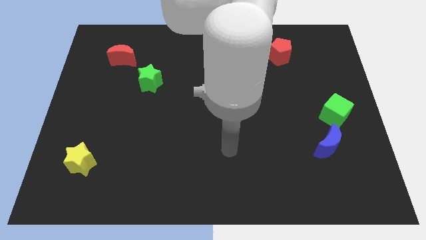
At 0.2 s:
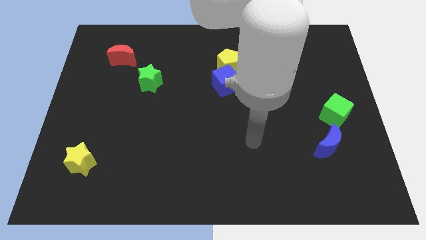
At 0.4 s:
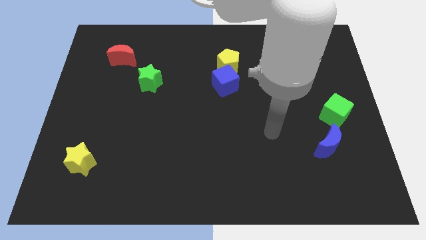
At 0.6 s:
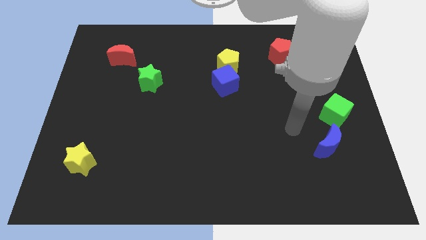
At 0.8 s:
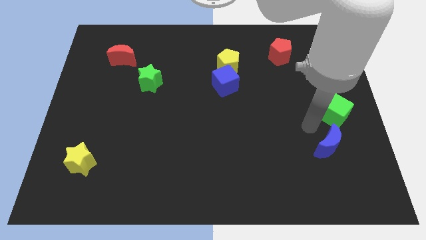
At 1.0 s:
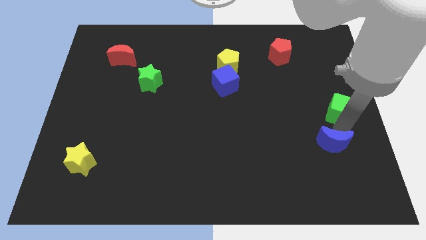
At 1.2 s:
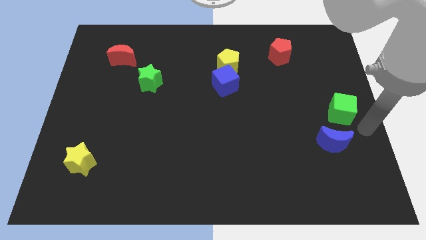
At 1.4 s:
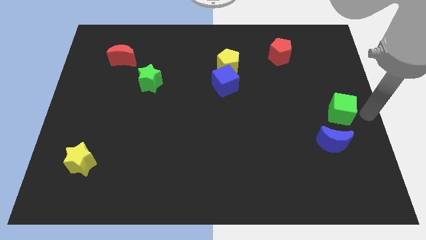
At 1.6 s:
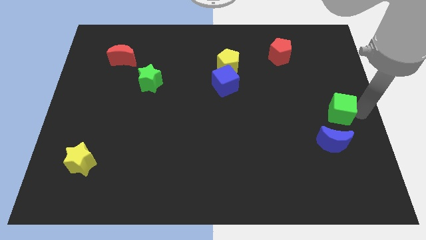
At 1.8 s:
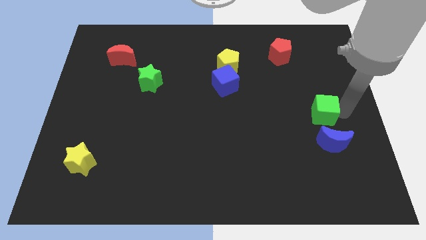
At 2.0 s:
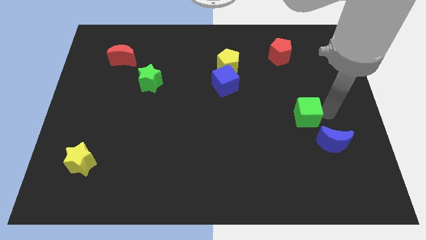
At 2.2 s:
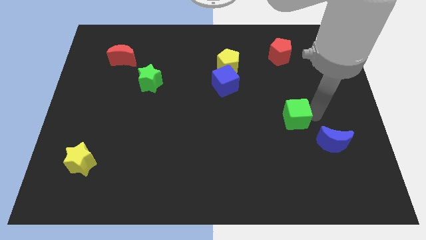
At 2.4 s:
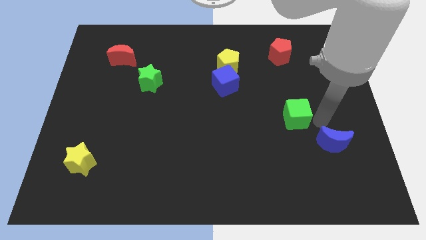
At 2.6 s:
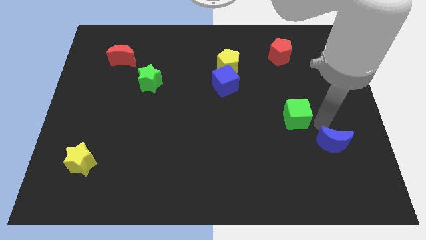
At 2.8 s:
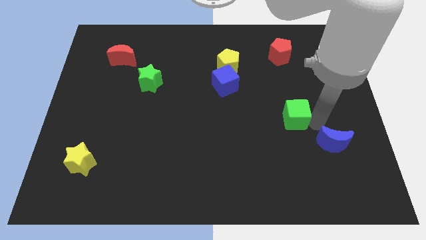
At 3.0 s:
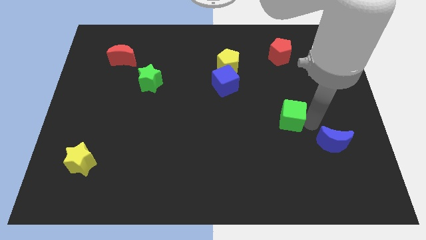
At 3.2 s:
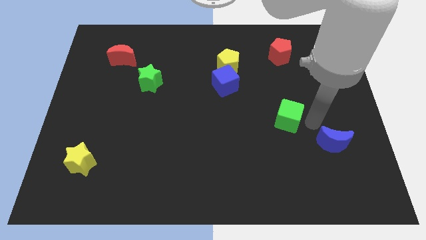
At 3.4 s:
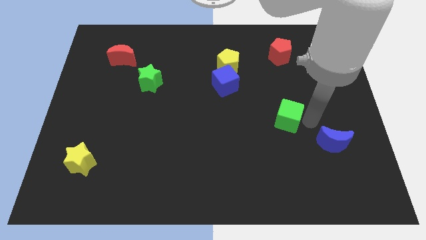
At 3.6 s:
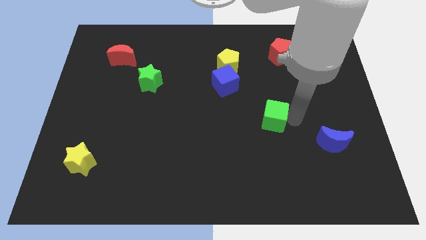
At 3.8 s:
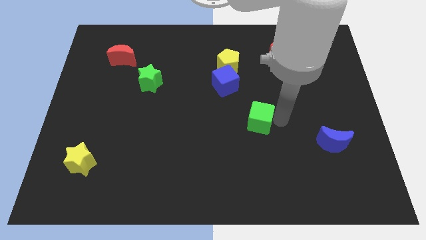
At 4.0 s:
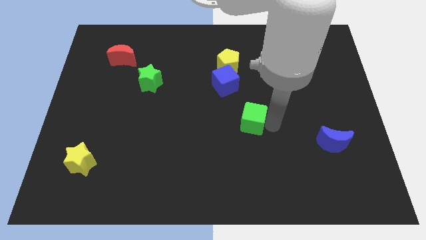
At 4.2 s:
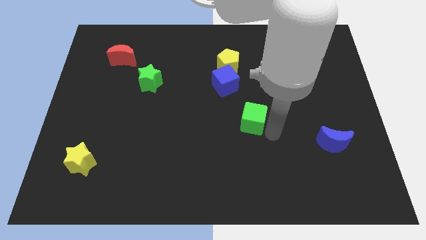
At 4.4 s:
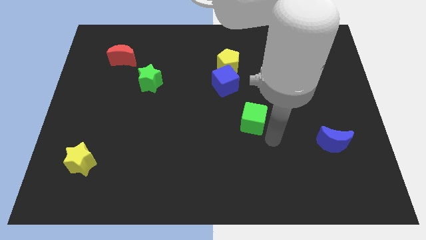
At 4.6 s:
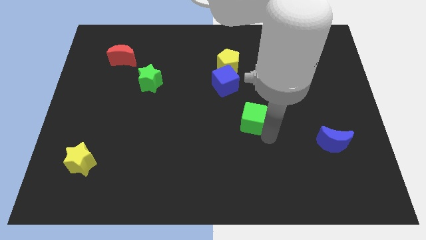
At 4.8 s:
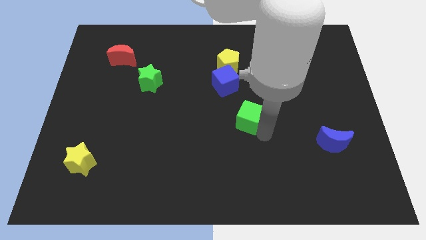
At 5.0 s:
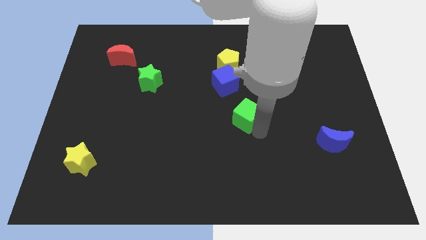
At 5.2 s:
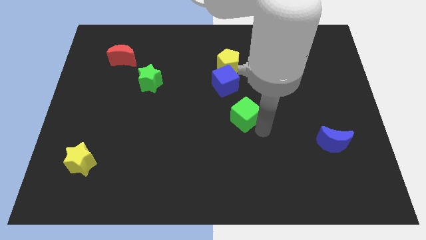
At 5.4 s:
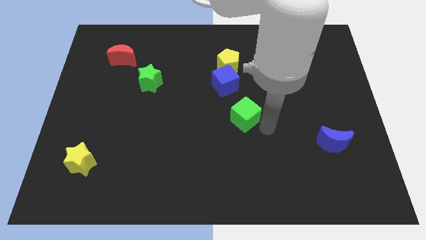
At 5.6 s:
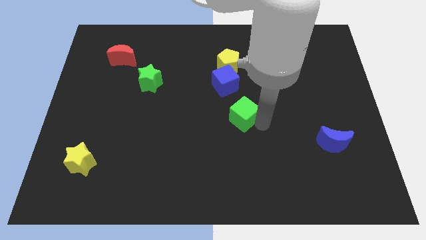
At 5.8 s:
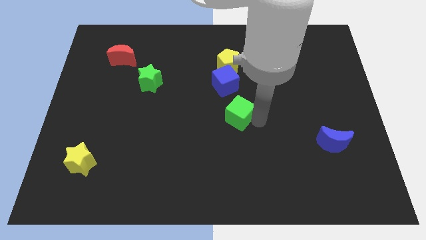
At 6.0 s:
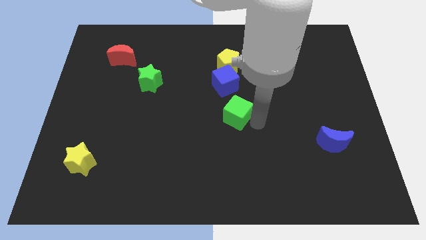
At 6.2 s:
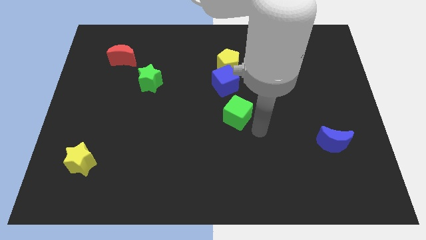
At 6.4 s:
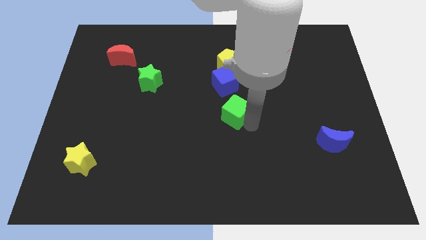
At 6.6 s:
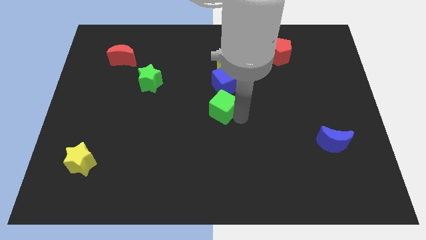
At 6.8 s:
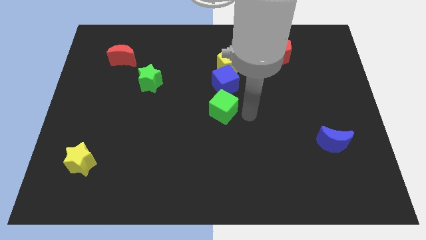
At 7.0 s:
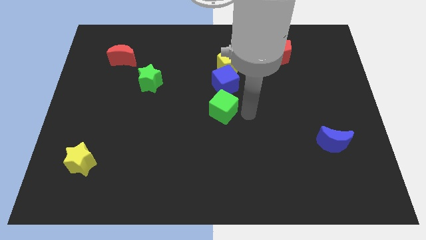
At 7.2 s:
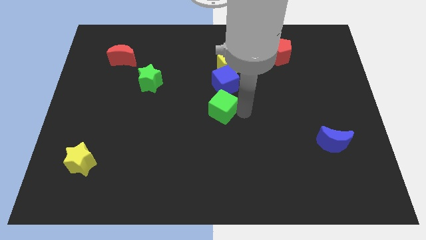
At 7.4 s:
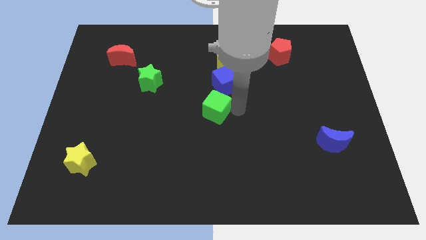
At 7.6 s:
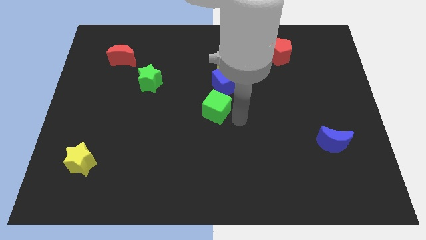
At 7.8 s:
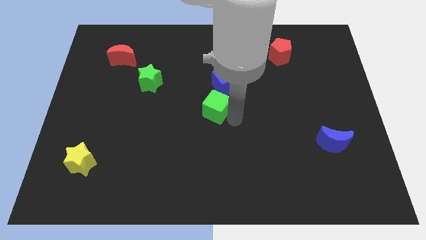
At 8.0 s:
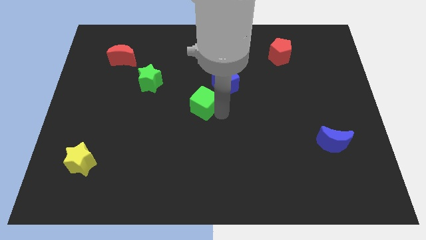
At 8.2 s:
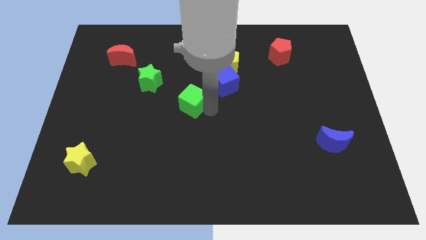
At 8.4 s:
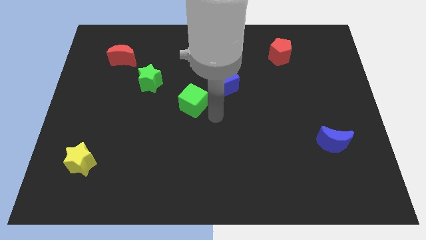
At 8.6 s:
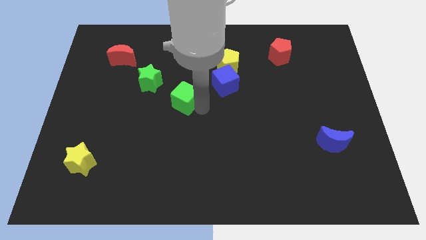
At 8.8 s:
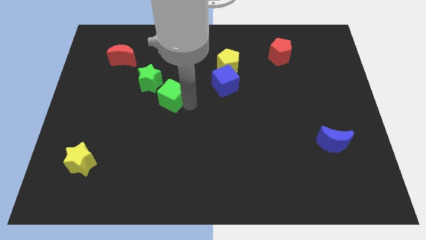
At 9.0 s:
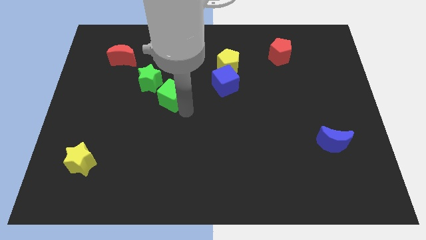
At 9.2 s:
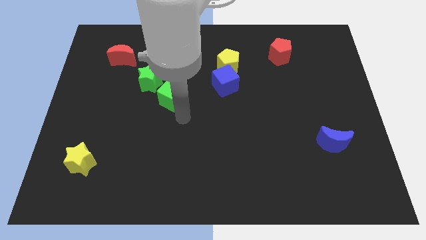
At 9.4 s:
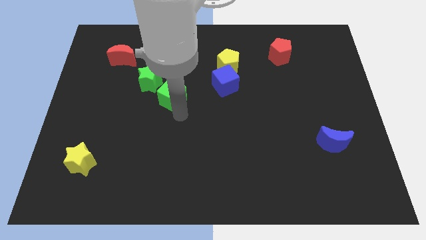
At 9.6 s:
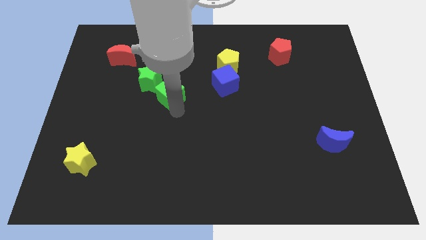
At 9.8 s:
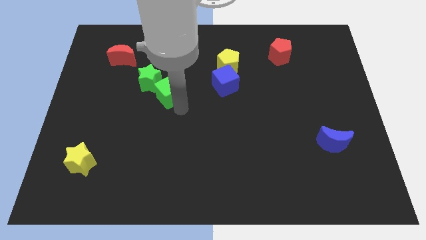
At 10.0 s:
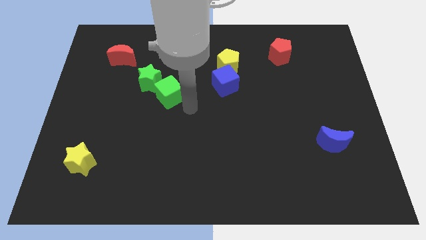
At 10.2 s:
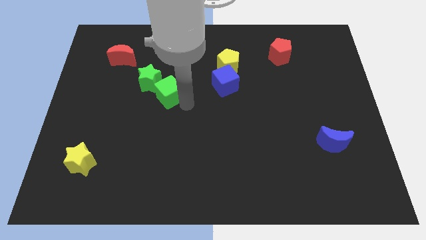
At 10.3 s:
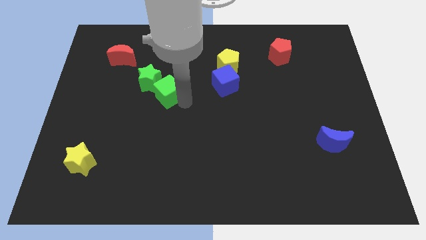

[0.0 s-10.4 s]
slide the green cube towards the green star

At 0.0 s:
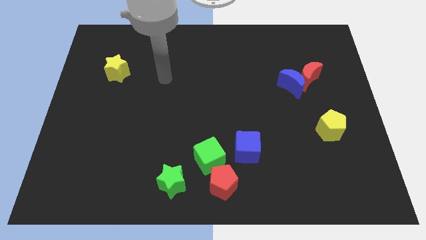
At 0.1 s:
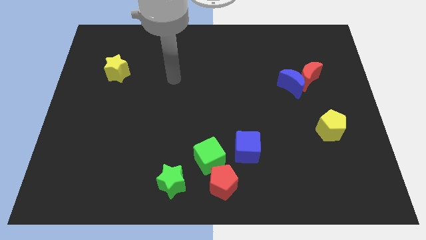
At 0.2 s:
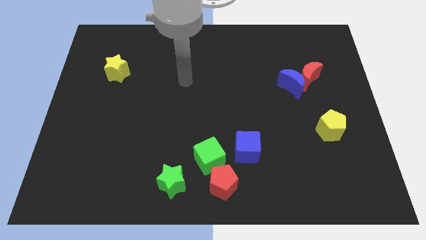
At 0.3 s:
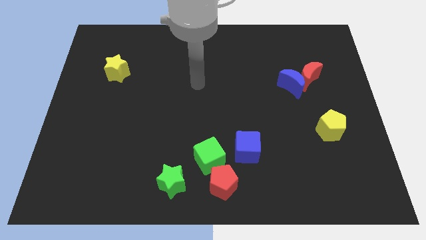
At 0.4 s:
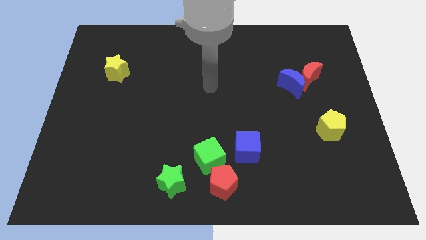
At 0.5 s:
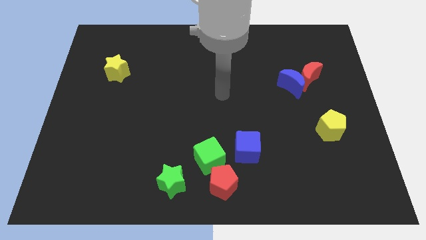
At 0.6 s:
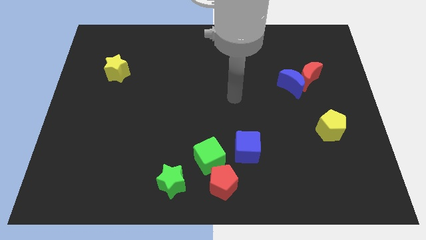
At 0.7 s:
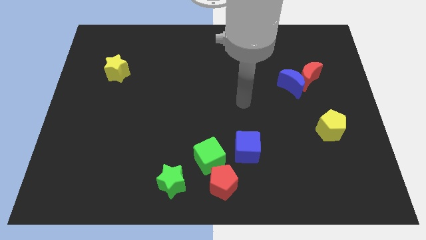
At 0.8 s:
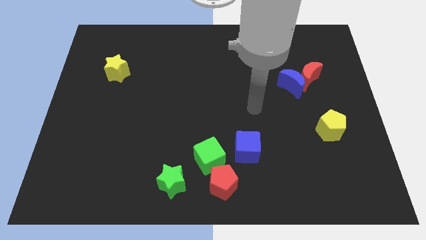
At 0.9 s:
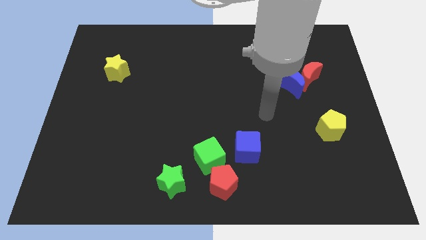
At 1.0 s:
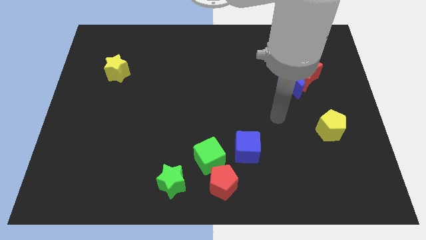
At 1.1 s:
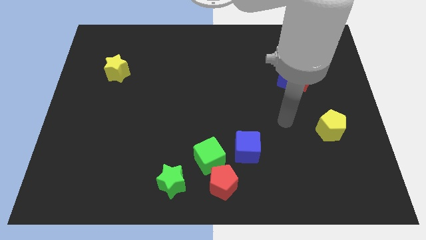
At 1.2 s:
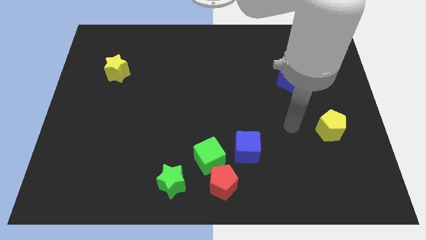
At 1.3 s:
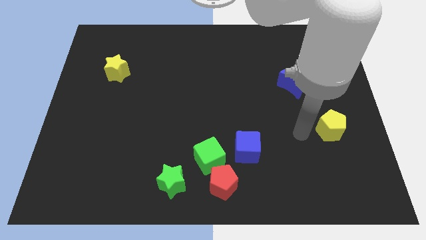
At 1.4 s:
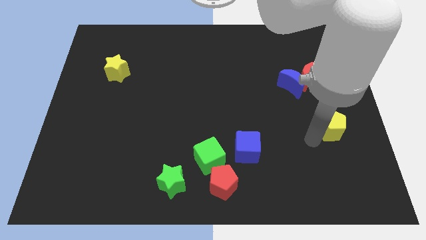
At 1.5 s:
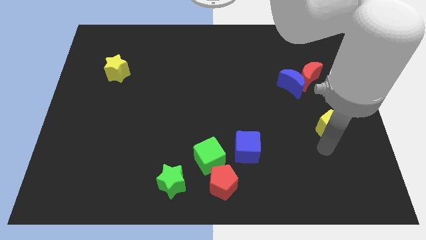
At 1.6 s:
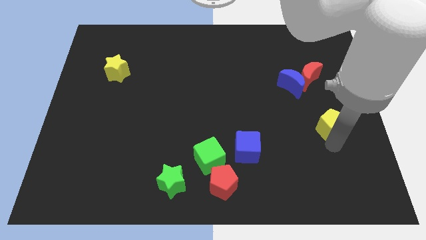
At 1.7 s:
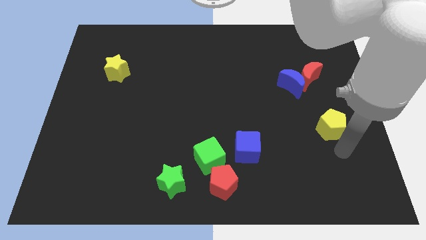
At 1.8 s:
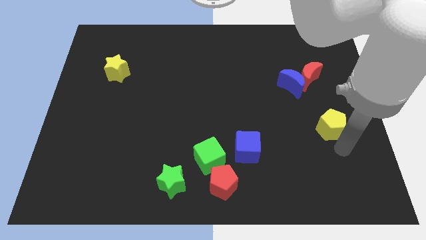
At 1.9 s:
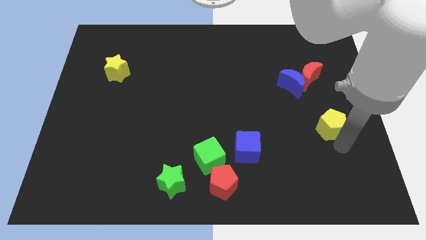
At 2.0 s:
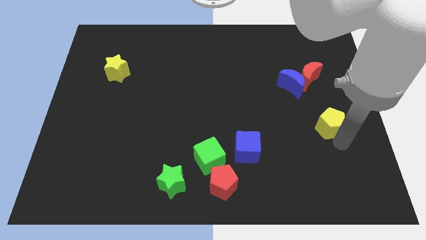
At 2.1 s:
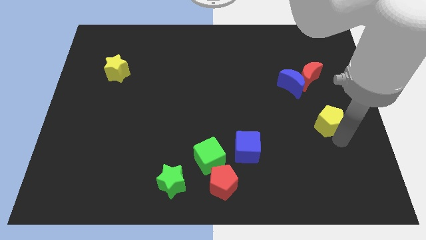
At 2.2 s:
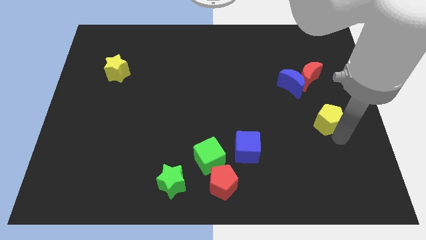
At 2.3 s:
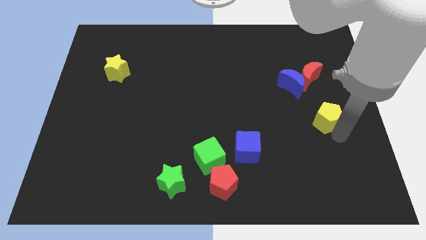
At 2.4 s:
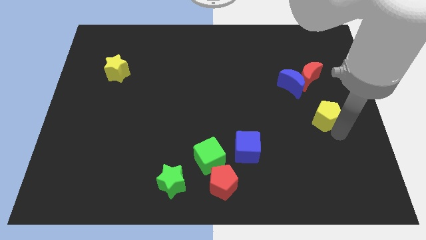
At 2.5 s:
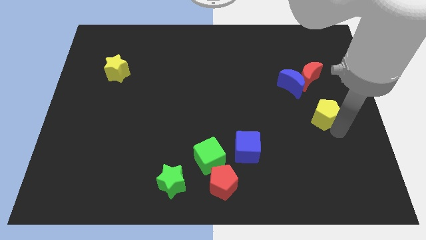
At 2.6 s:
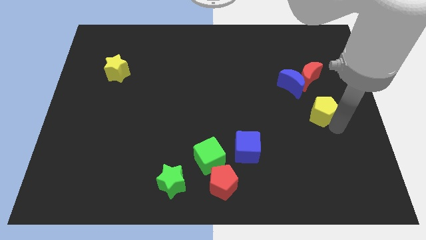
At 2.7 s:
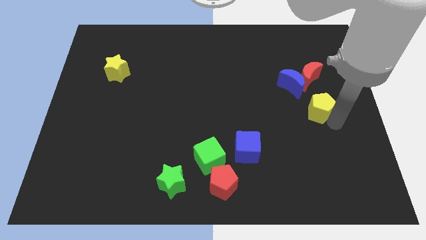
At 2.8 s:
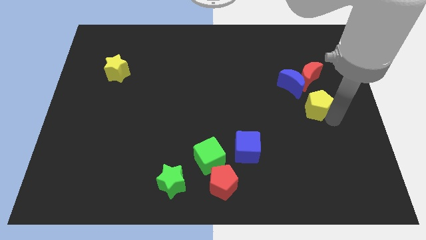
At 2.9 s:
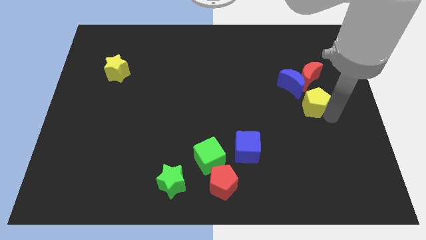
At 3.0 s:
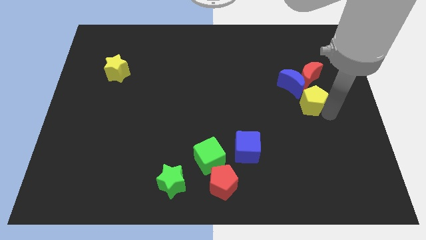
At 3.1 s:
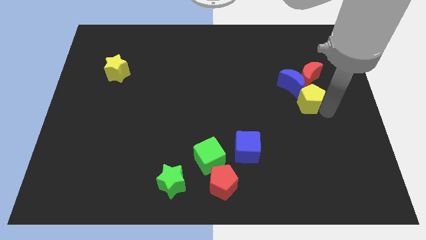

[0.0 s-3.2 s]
push the yellow pentagon close to the blue moon

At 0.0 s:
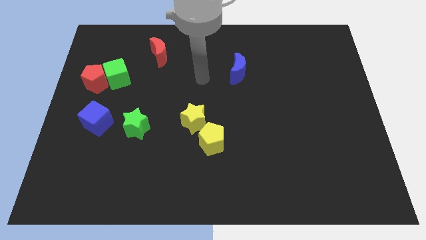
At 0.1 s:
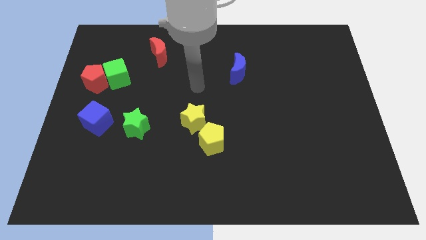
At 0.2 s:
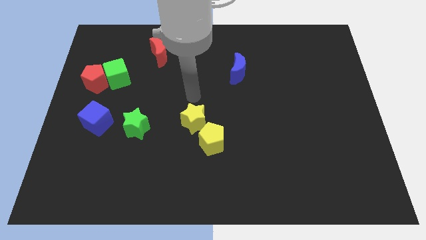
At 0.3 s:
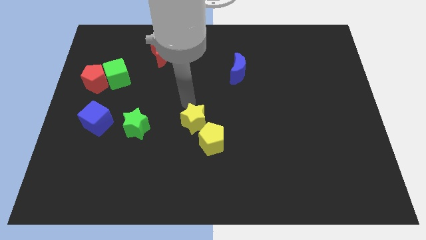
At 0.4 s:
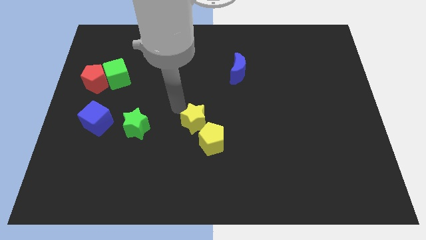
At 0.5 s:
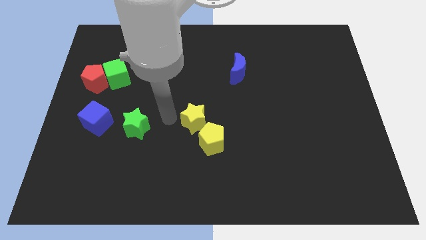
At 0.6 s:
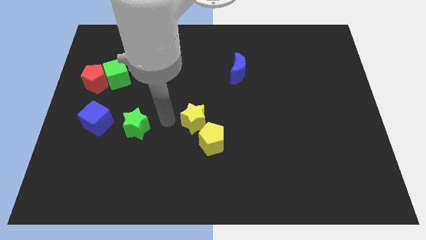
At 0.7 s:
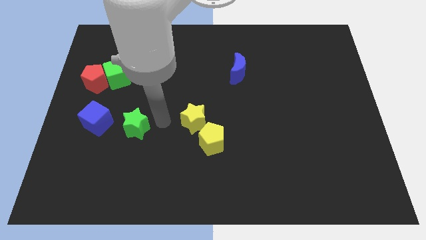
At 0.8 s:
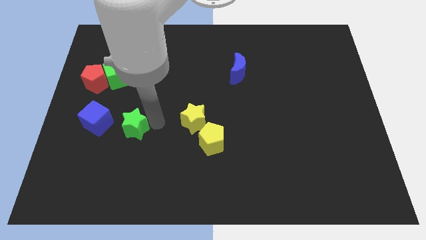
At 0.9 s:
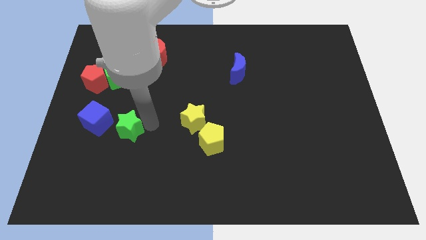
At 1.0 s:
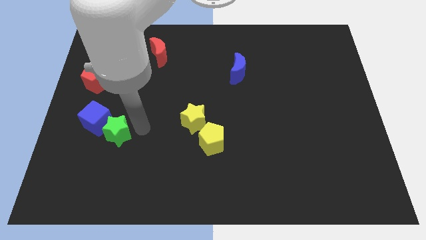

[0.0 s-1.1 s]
put the green star to the blue cube
